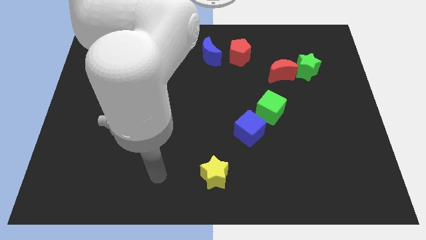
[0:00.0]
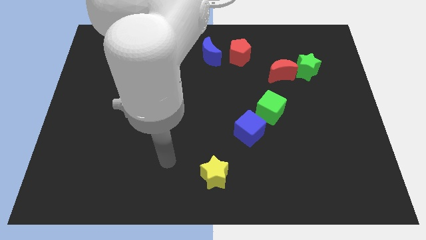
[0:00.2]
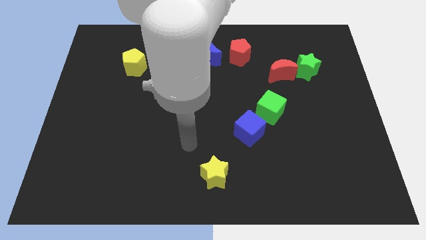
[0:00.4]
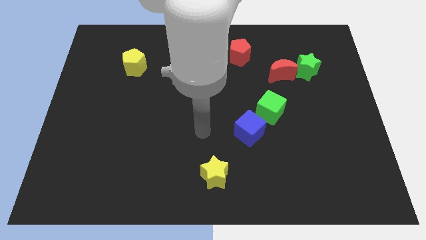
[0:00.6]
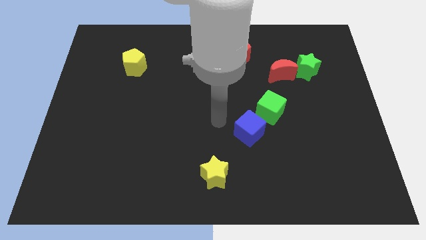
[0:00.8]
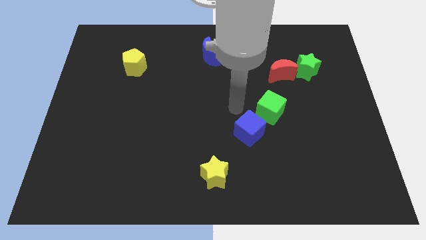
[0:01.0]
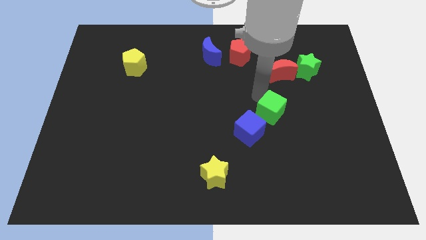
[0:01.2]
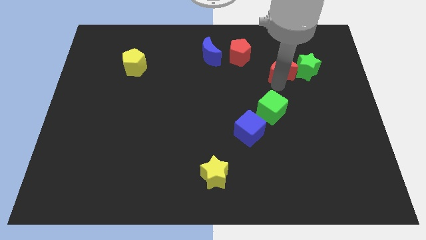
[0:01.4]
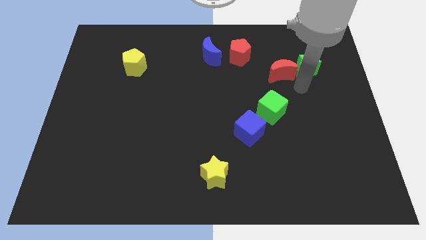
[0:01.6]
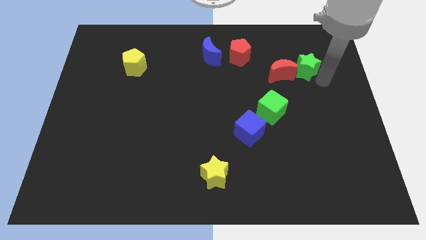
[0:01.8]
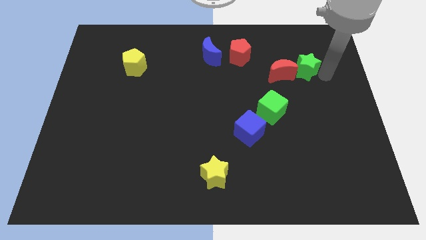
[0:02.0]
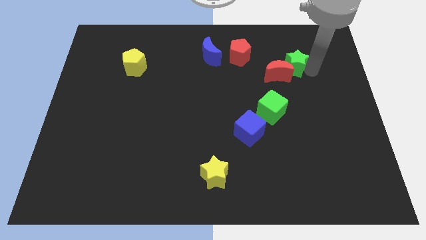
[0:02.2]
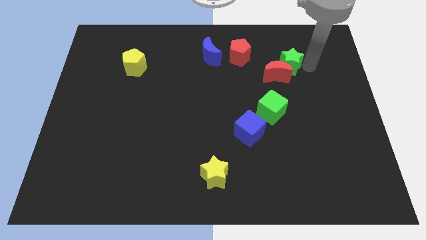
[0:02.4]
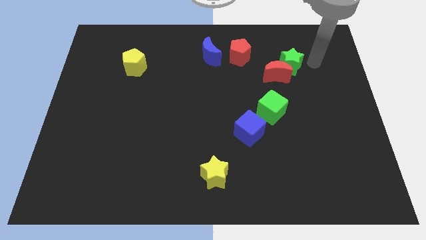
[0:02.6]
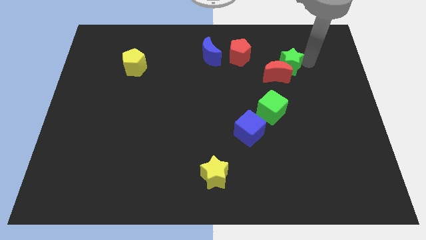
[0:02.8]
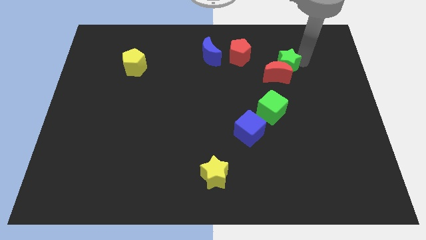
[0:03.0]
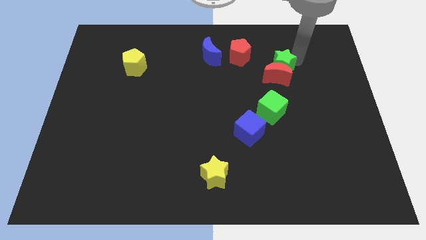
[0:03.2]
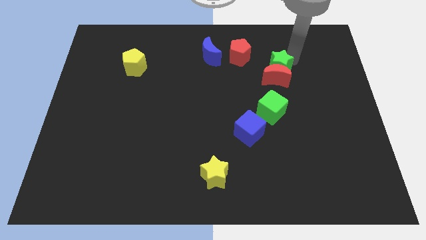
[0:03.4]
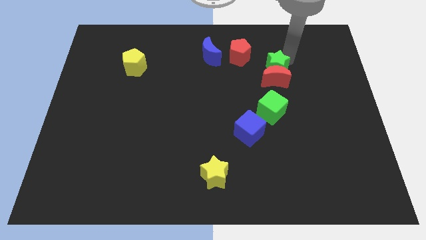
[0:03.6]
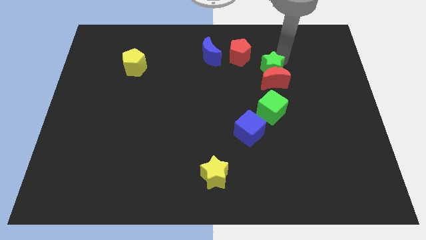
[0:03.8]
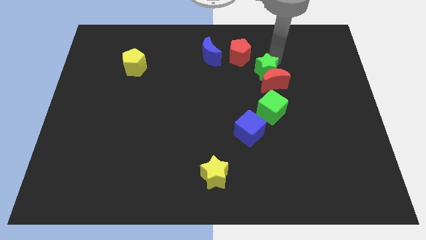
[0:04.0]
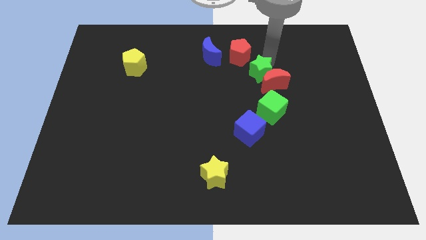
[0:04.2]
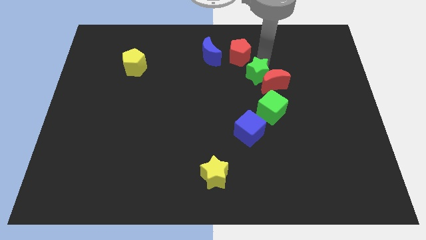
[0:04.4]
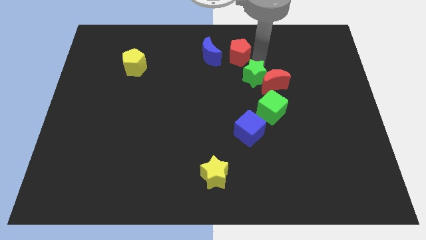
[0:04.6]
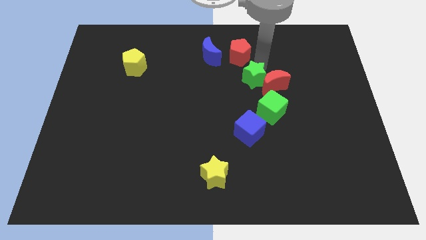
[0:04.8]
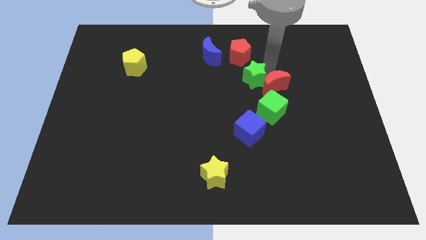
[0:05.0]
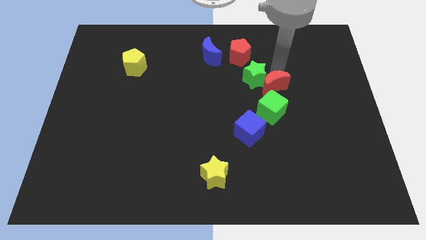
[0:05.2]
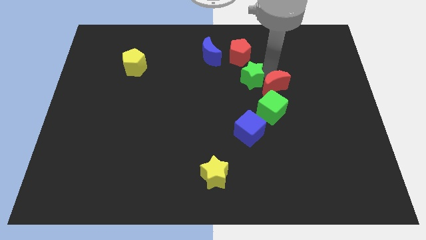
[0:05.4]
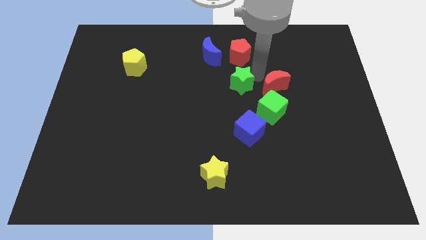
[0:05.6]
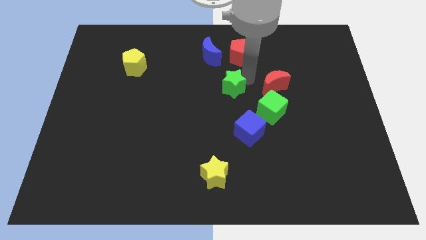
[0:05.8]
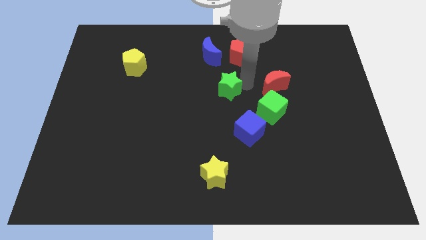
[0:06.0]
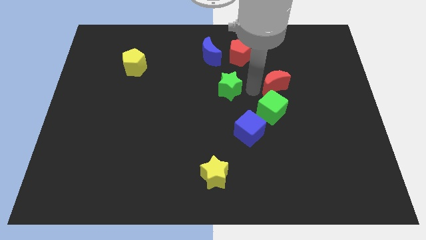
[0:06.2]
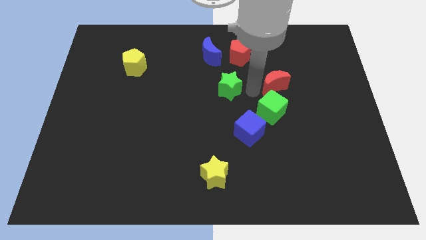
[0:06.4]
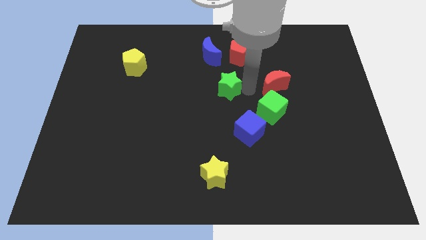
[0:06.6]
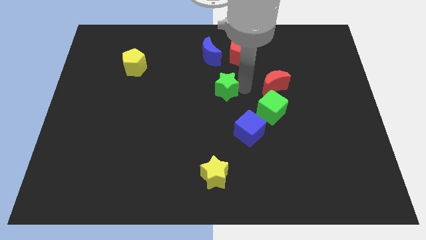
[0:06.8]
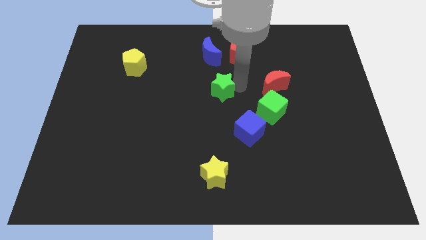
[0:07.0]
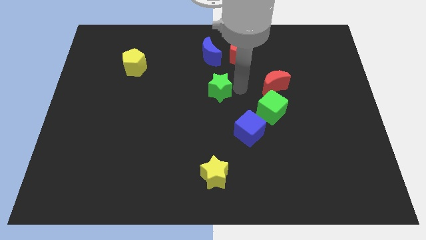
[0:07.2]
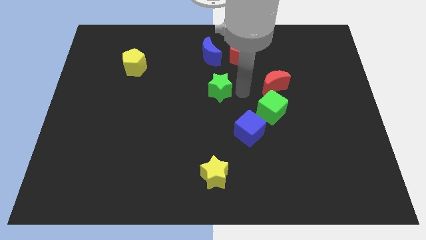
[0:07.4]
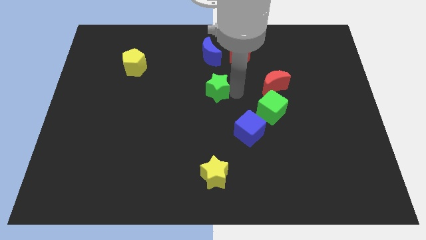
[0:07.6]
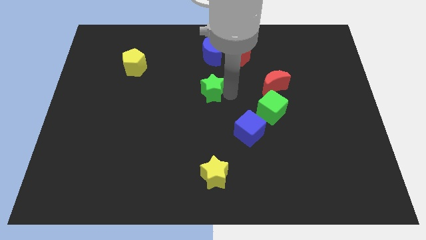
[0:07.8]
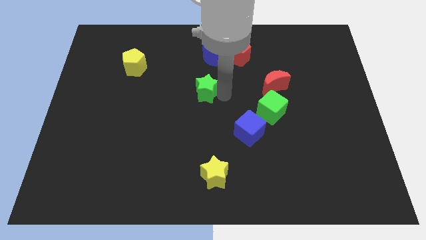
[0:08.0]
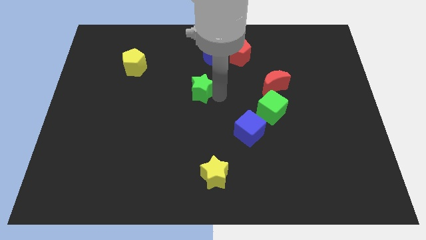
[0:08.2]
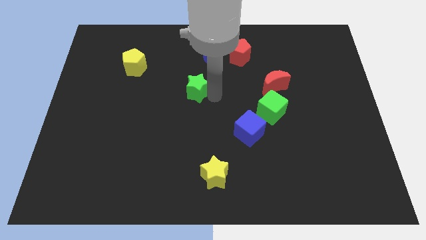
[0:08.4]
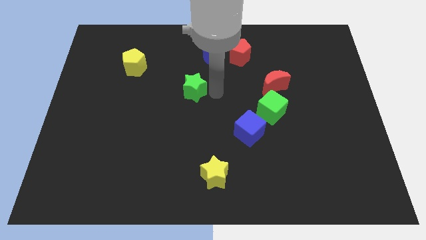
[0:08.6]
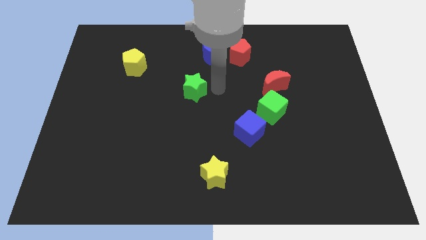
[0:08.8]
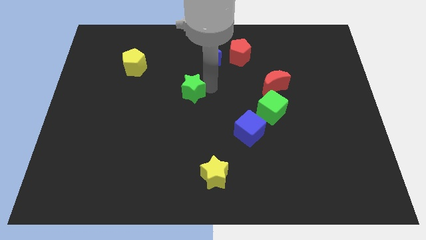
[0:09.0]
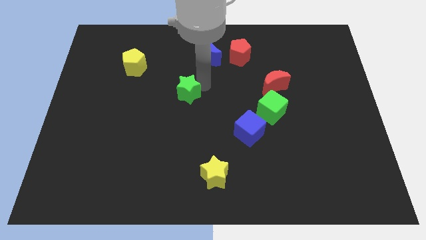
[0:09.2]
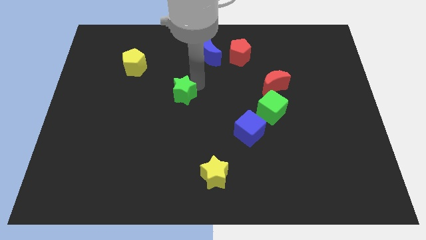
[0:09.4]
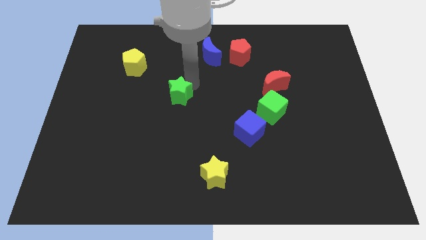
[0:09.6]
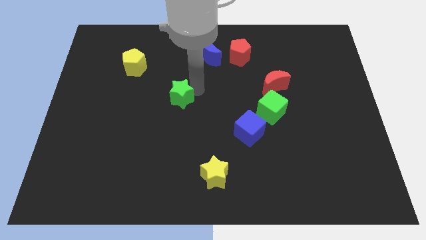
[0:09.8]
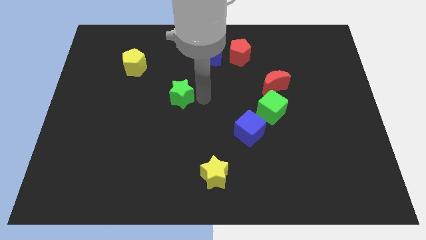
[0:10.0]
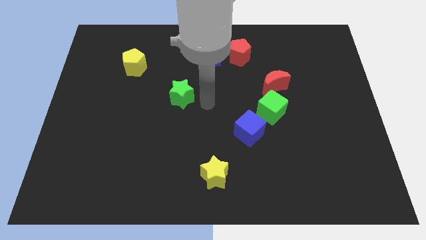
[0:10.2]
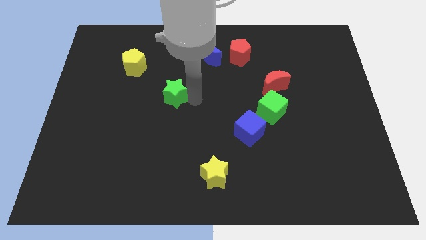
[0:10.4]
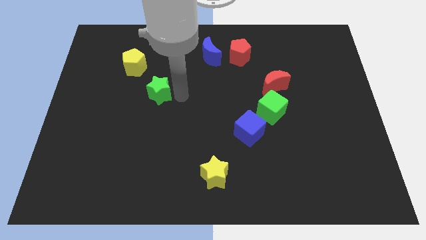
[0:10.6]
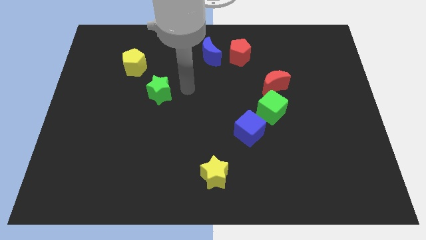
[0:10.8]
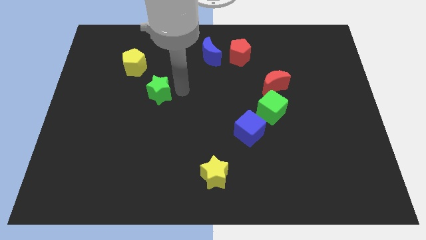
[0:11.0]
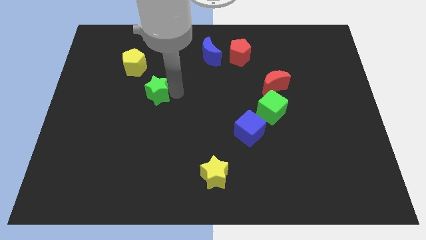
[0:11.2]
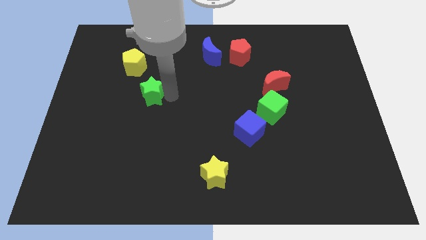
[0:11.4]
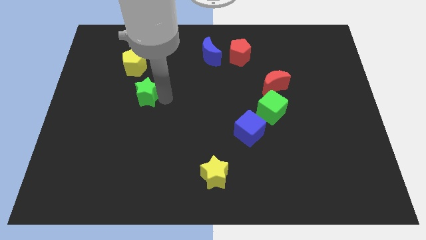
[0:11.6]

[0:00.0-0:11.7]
slide the green star below the yellow pentagon
